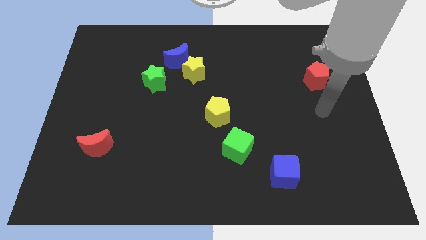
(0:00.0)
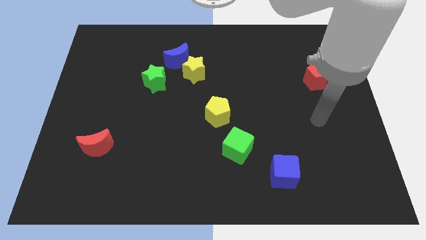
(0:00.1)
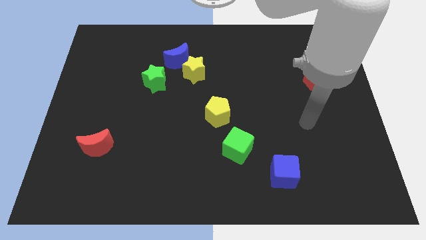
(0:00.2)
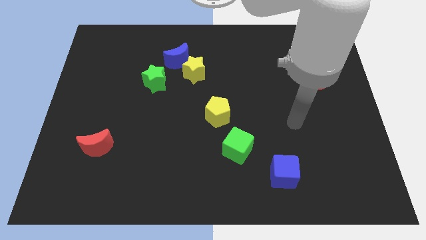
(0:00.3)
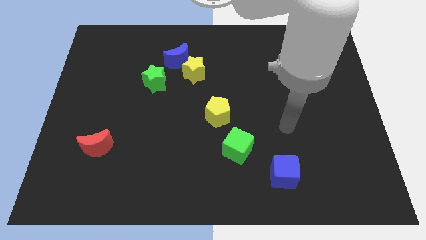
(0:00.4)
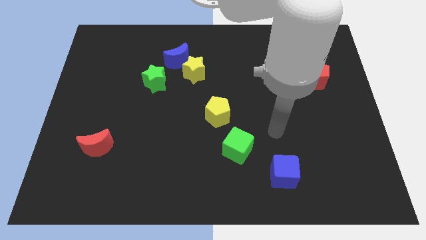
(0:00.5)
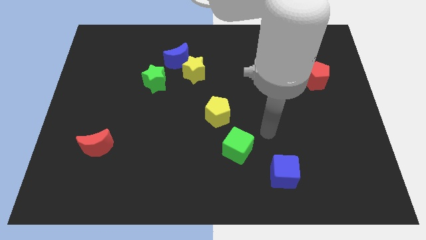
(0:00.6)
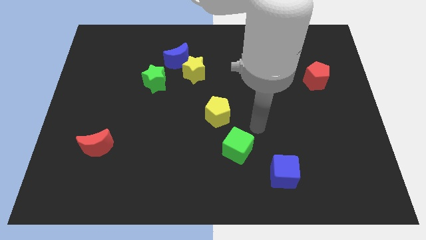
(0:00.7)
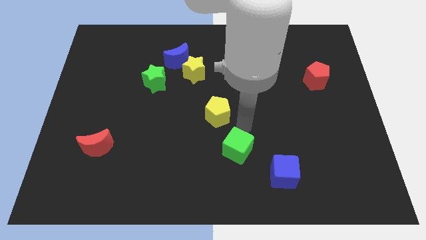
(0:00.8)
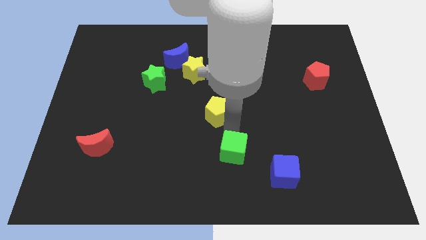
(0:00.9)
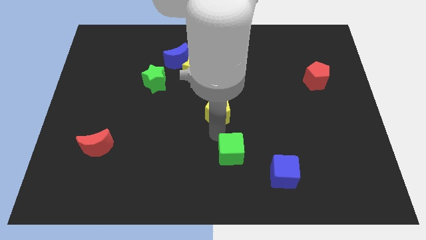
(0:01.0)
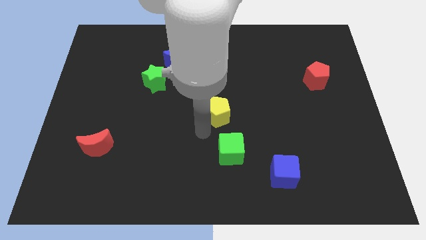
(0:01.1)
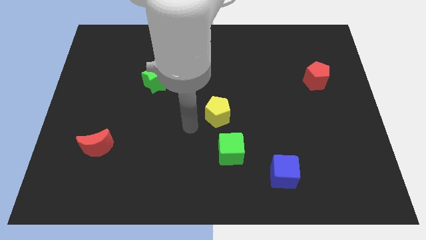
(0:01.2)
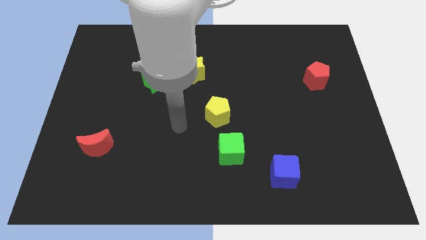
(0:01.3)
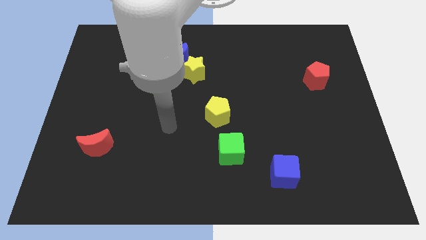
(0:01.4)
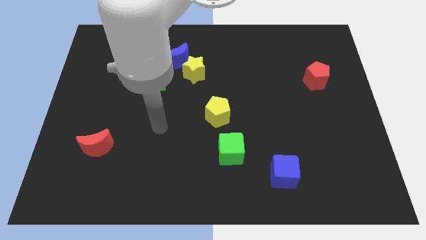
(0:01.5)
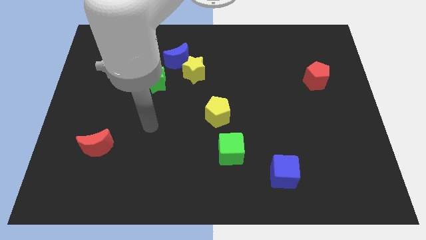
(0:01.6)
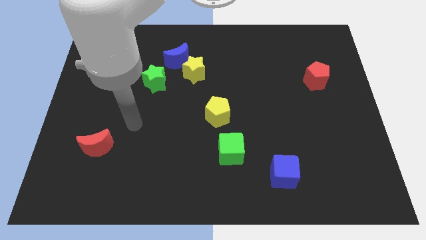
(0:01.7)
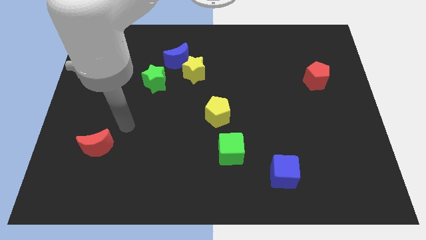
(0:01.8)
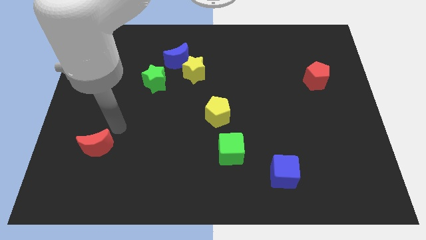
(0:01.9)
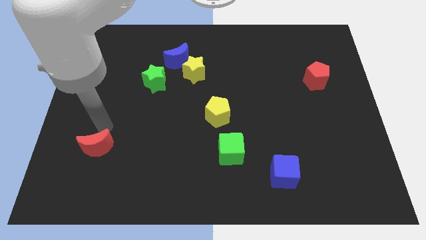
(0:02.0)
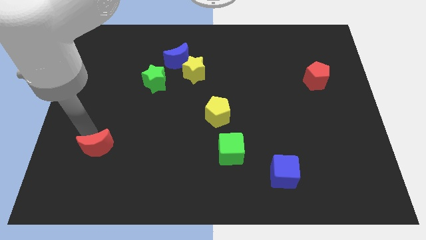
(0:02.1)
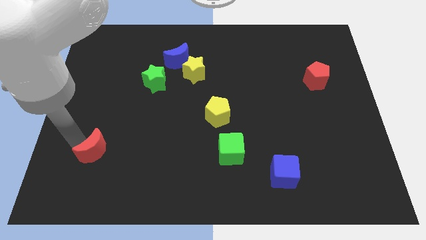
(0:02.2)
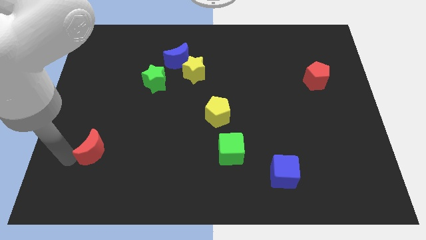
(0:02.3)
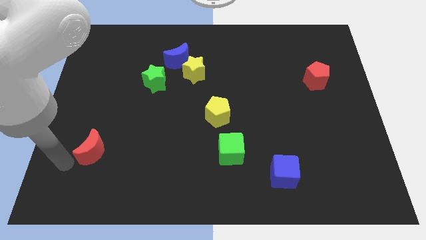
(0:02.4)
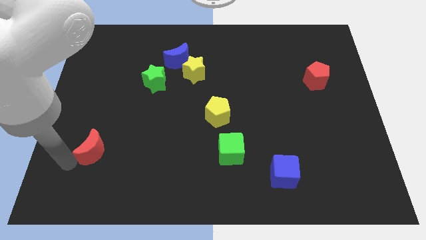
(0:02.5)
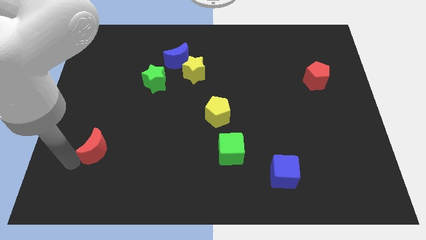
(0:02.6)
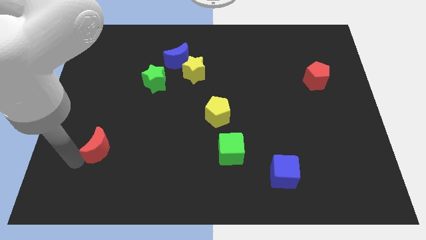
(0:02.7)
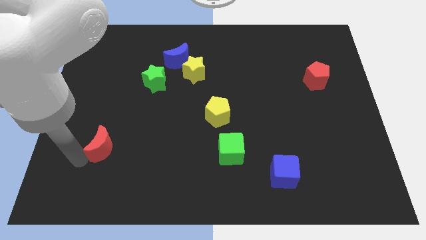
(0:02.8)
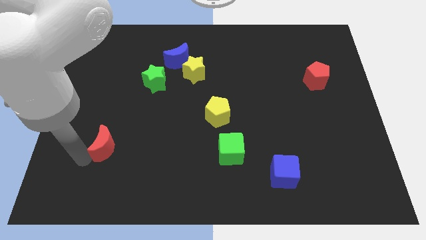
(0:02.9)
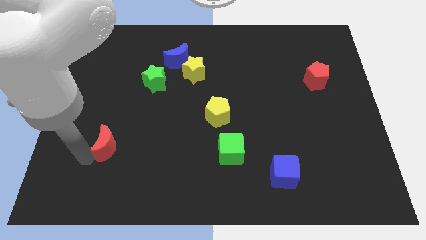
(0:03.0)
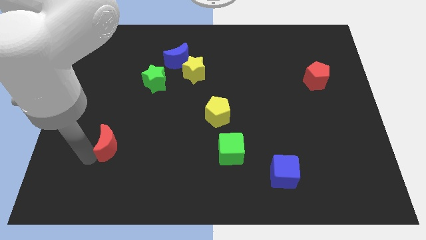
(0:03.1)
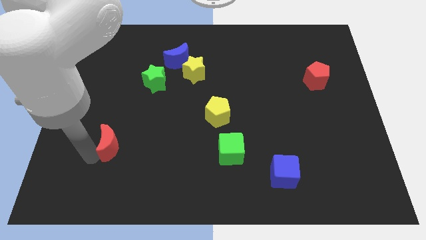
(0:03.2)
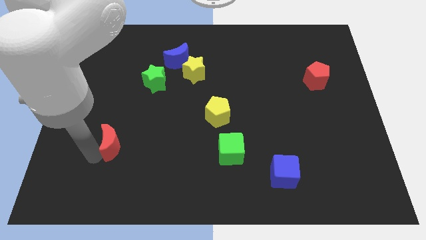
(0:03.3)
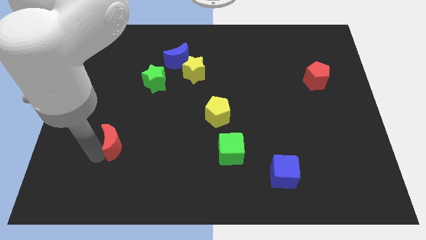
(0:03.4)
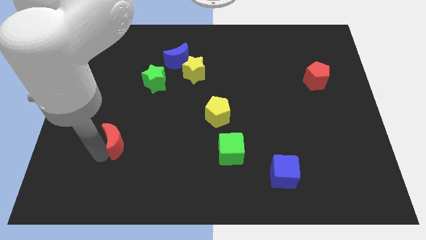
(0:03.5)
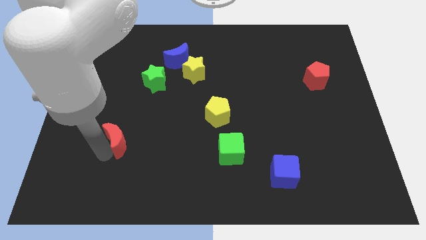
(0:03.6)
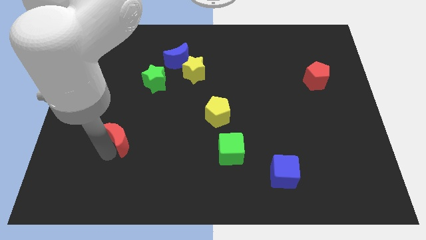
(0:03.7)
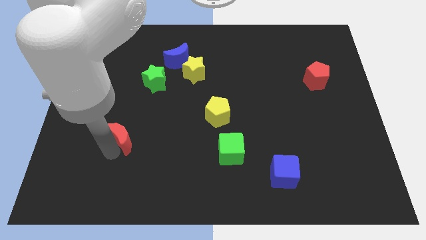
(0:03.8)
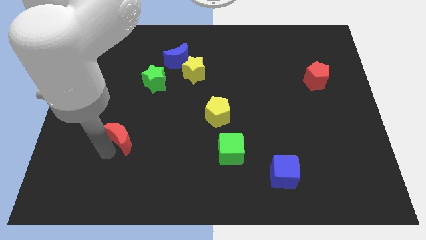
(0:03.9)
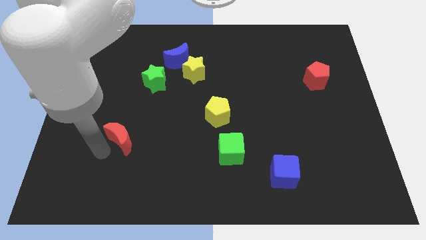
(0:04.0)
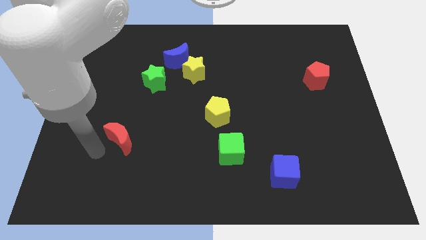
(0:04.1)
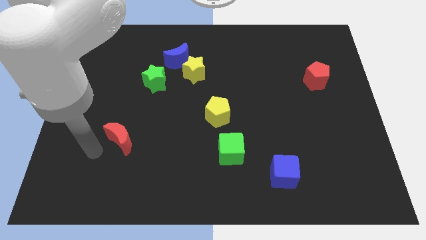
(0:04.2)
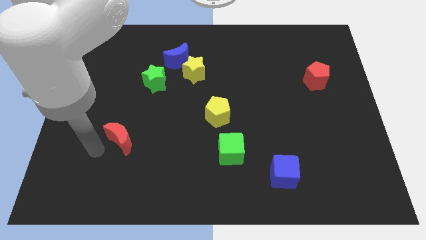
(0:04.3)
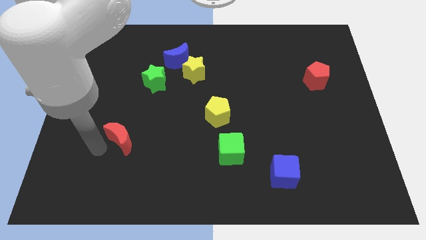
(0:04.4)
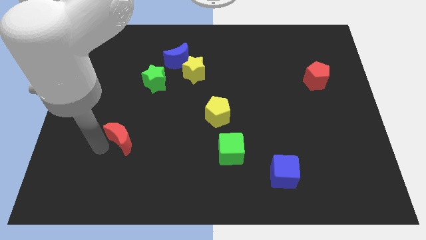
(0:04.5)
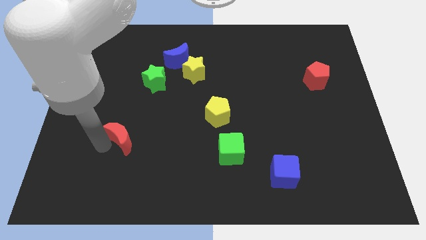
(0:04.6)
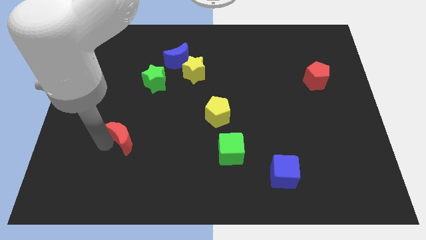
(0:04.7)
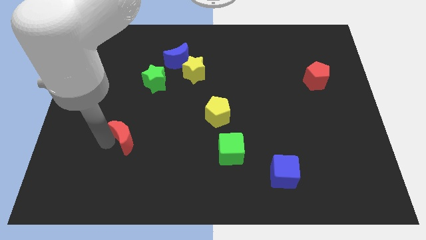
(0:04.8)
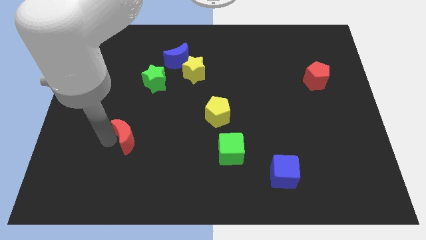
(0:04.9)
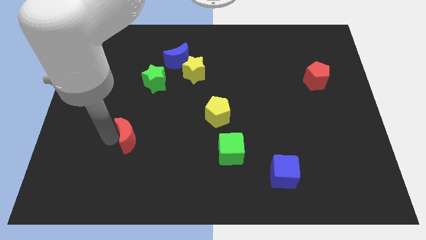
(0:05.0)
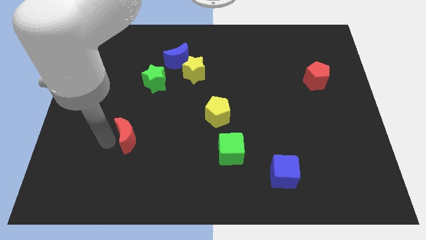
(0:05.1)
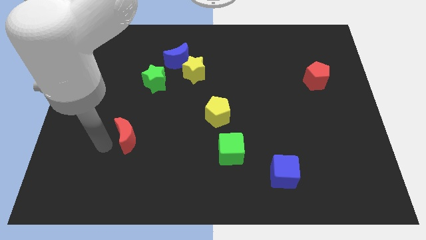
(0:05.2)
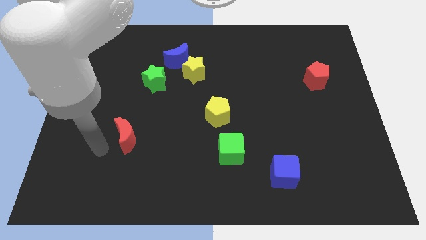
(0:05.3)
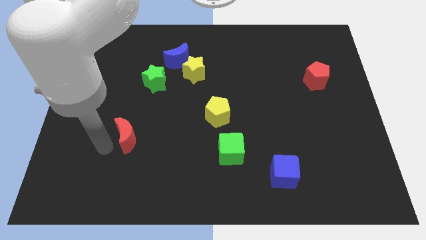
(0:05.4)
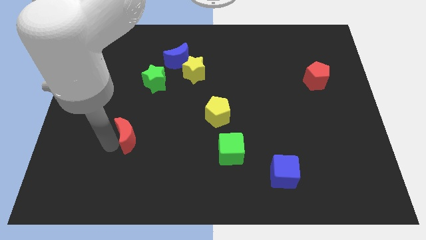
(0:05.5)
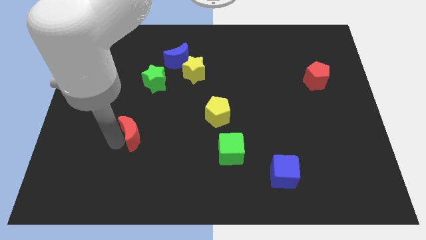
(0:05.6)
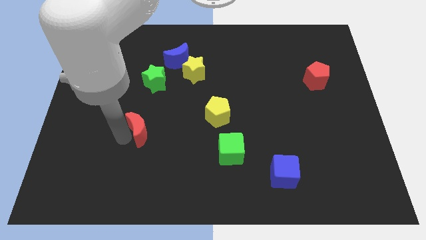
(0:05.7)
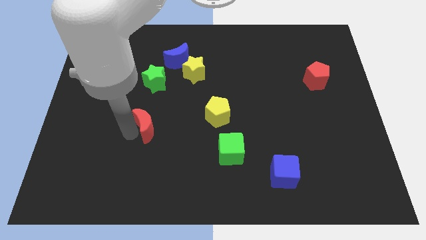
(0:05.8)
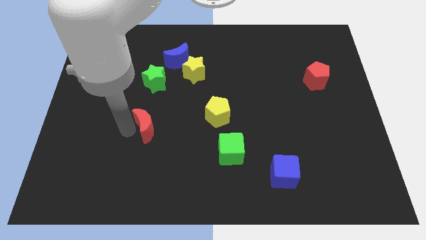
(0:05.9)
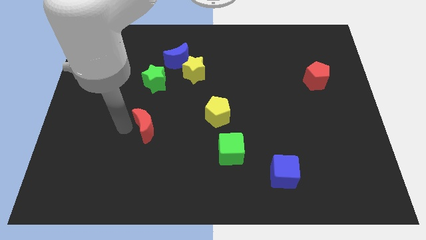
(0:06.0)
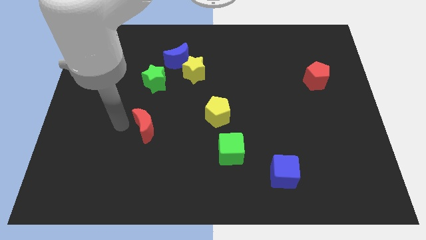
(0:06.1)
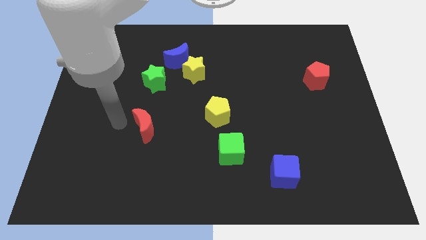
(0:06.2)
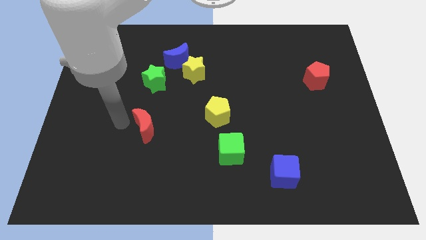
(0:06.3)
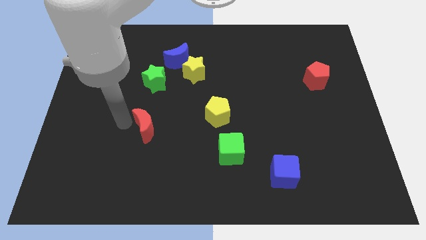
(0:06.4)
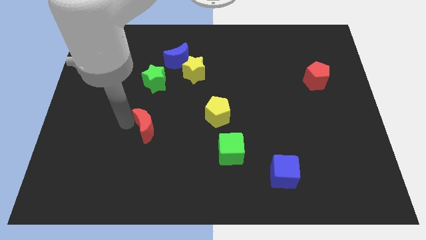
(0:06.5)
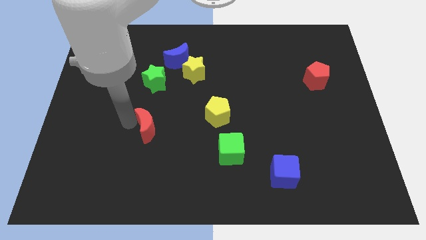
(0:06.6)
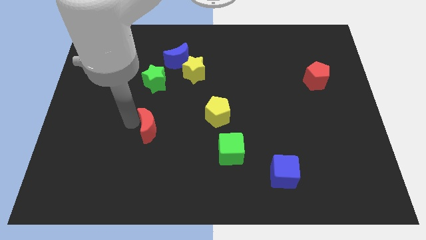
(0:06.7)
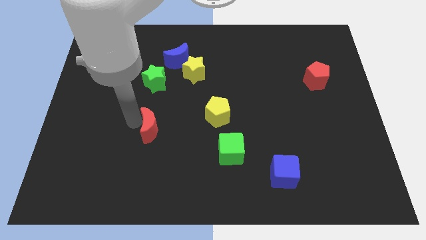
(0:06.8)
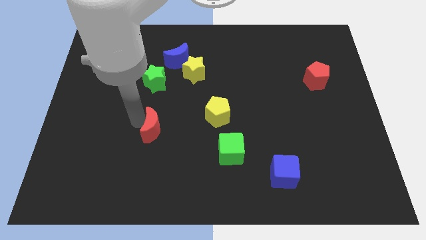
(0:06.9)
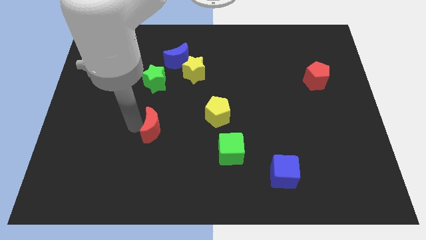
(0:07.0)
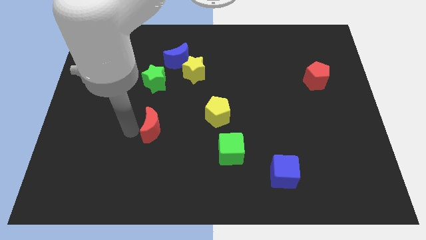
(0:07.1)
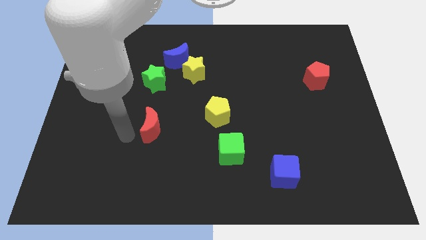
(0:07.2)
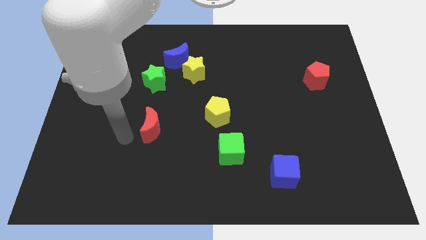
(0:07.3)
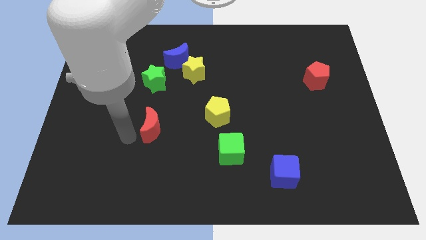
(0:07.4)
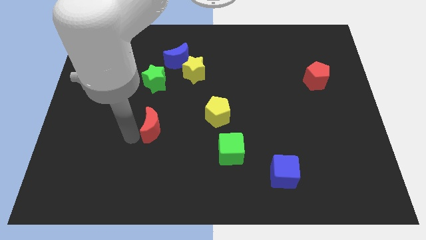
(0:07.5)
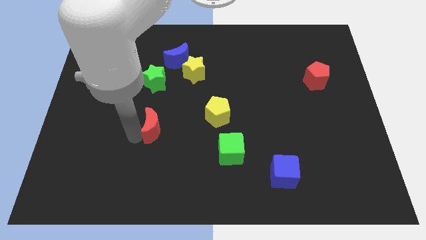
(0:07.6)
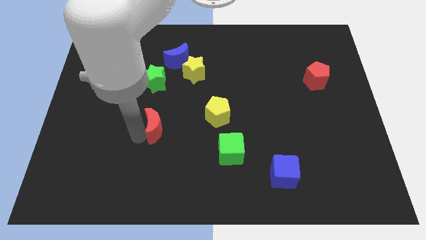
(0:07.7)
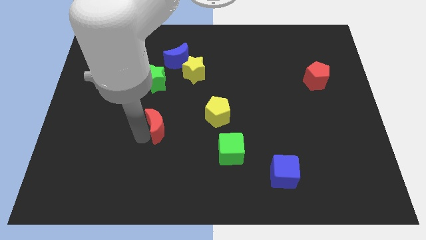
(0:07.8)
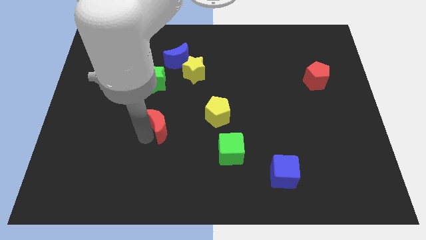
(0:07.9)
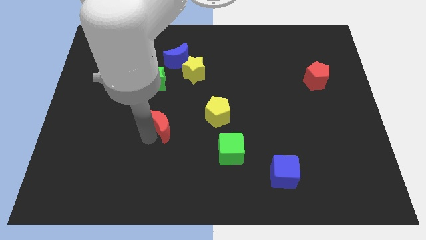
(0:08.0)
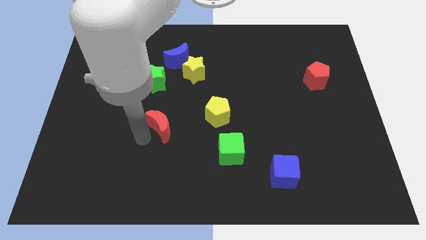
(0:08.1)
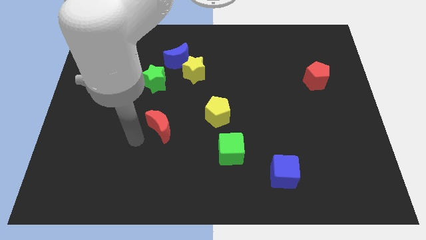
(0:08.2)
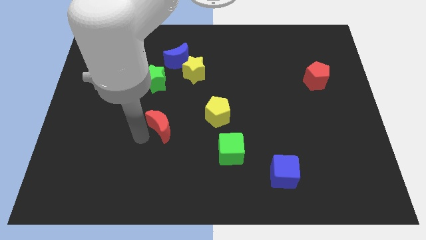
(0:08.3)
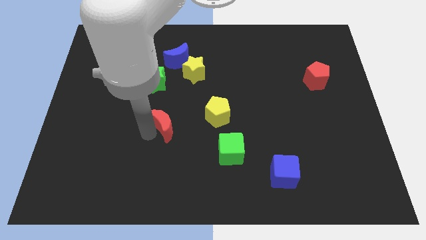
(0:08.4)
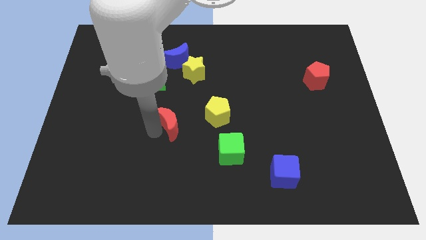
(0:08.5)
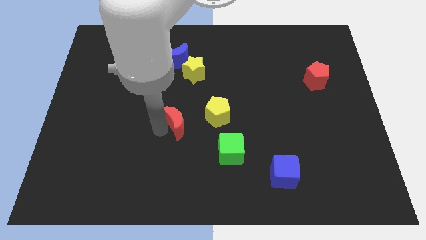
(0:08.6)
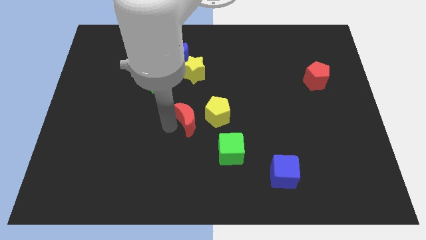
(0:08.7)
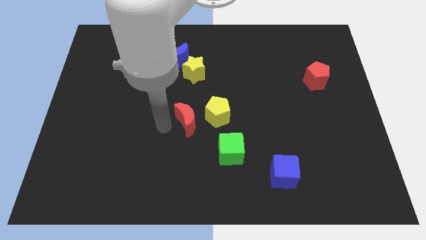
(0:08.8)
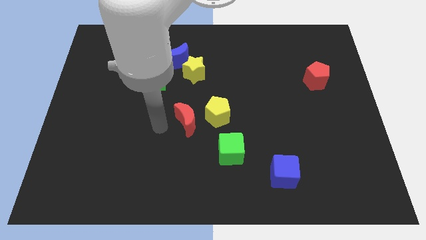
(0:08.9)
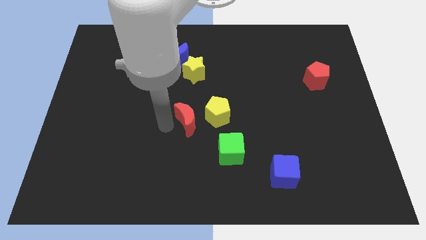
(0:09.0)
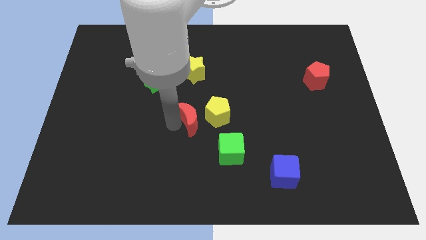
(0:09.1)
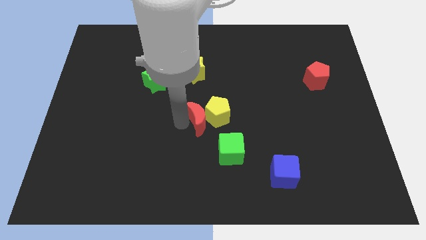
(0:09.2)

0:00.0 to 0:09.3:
put the red moon to the yellow pentagon
